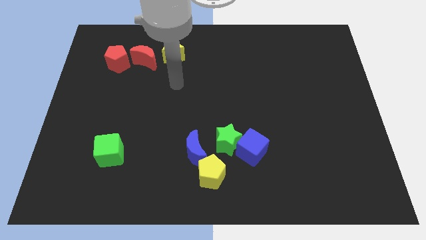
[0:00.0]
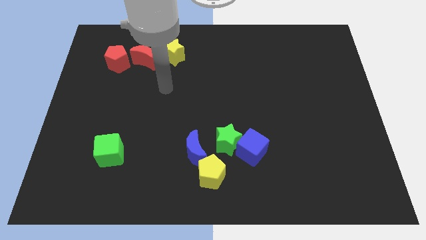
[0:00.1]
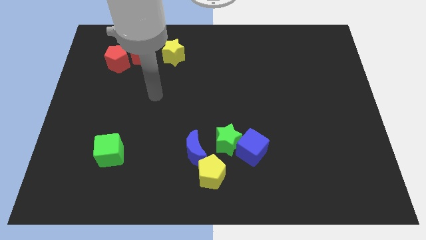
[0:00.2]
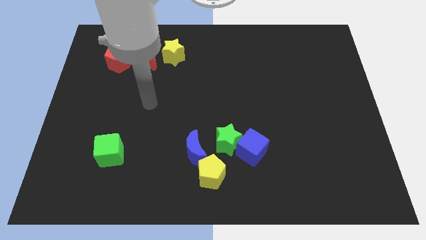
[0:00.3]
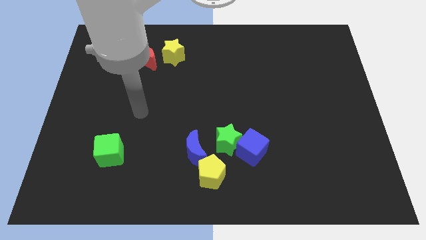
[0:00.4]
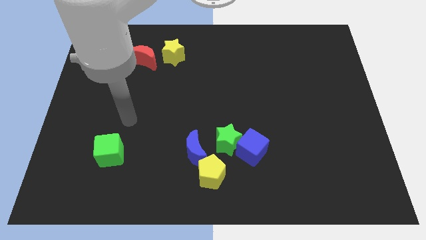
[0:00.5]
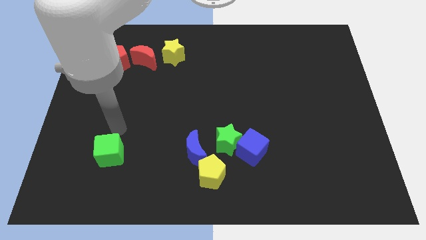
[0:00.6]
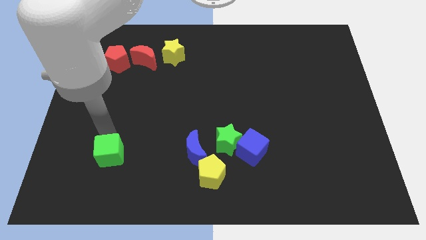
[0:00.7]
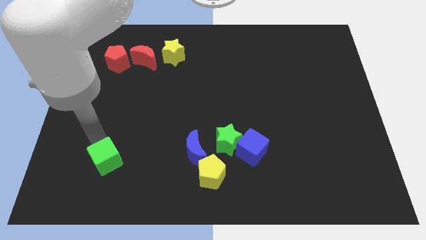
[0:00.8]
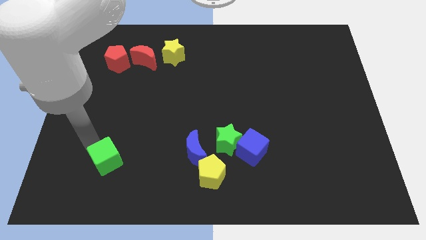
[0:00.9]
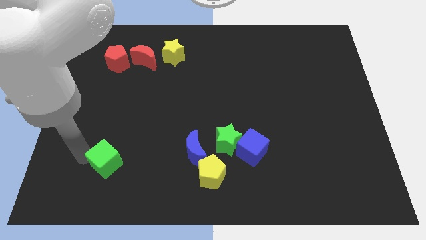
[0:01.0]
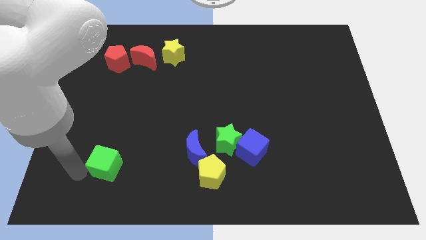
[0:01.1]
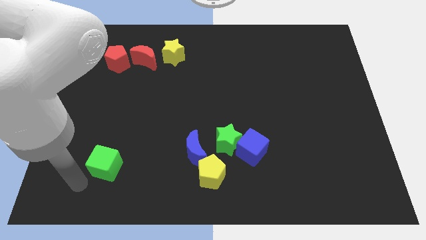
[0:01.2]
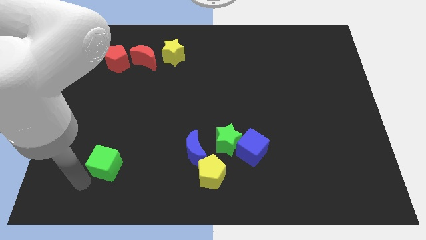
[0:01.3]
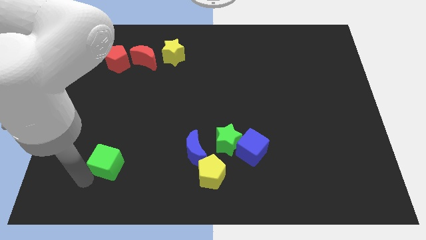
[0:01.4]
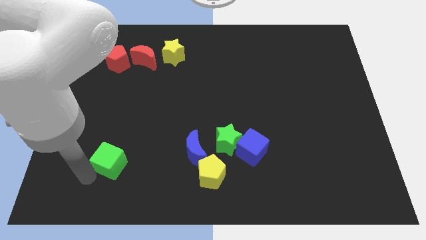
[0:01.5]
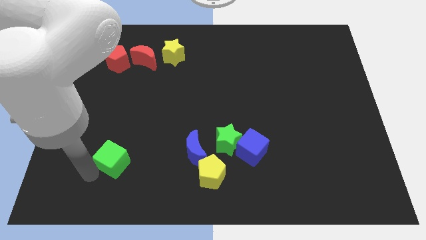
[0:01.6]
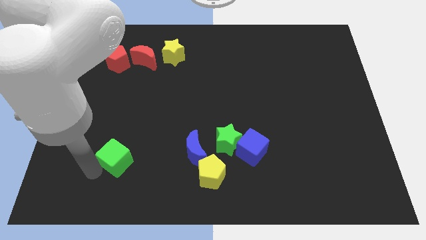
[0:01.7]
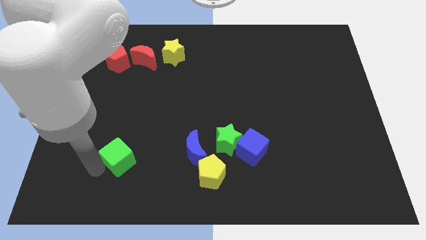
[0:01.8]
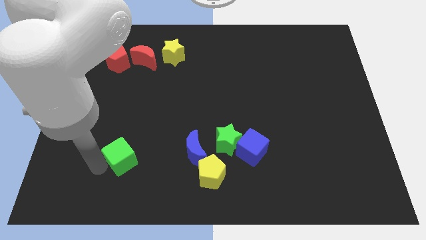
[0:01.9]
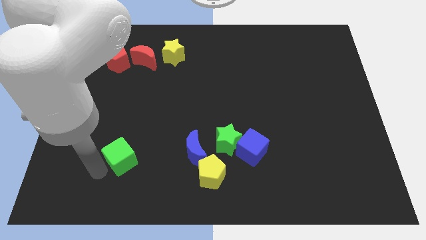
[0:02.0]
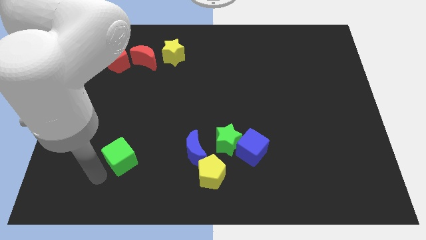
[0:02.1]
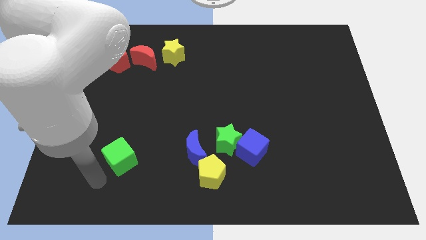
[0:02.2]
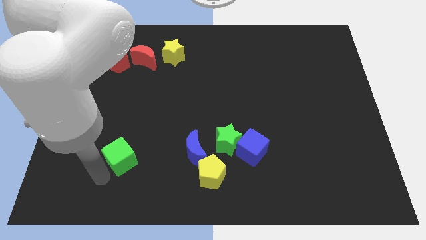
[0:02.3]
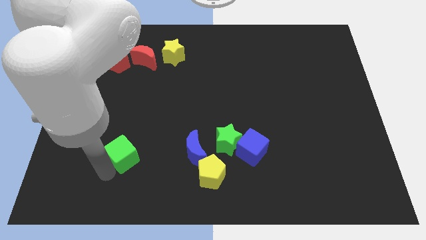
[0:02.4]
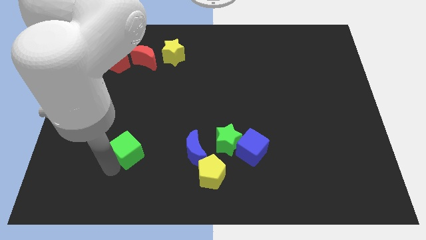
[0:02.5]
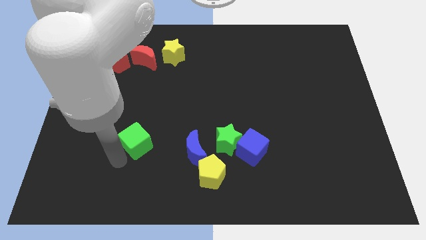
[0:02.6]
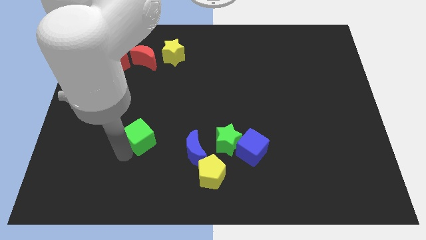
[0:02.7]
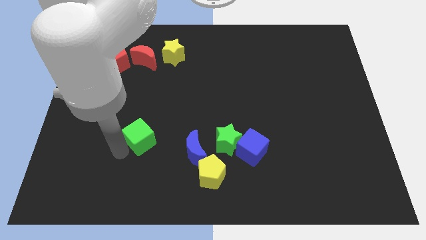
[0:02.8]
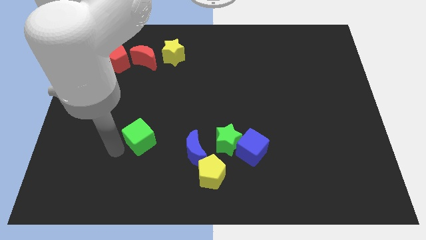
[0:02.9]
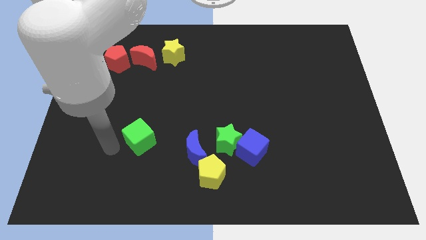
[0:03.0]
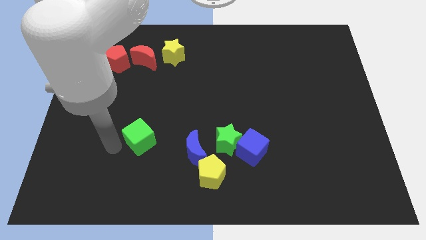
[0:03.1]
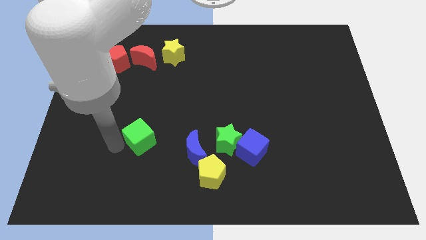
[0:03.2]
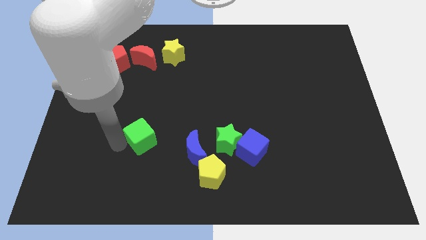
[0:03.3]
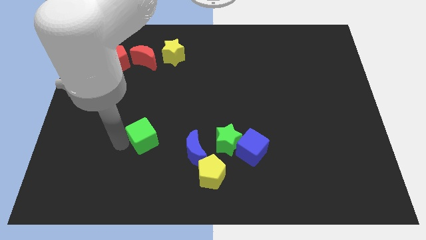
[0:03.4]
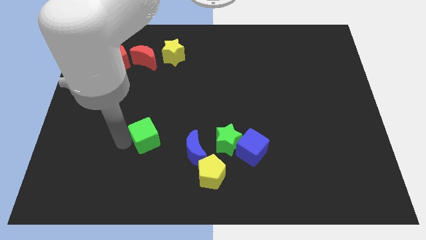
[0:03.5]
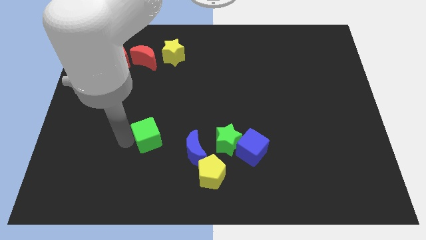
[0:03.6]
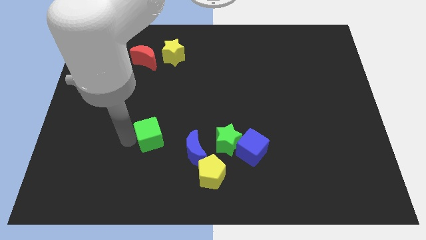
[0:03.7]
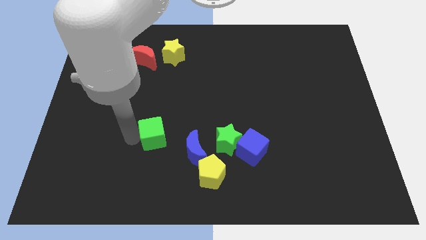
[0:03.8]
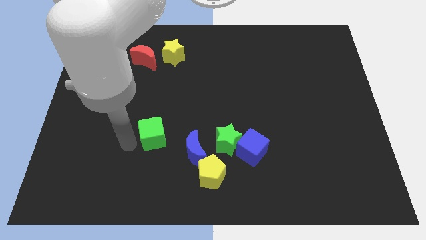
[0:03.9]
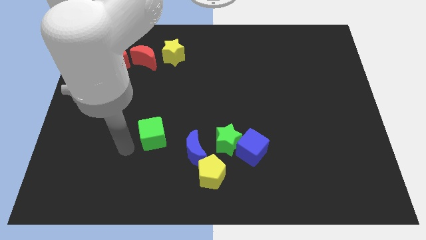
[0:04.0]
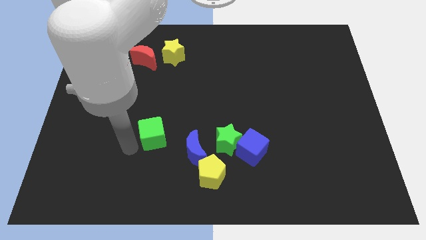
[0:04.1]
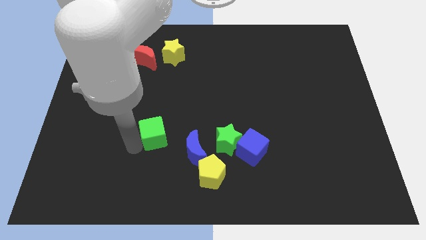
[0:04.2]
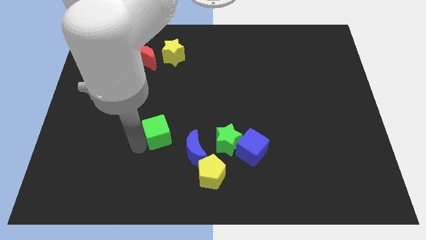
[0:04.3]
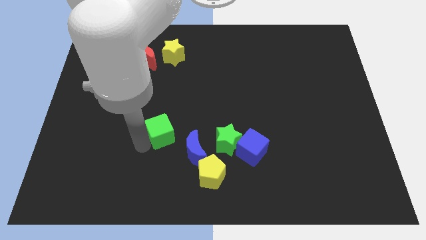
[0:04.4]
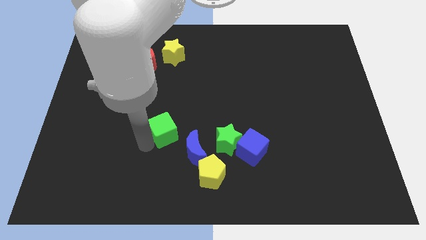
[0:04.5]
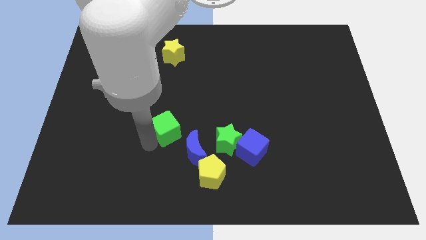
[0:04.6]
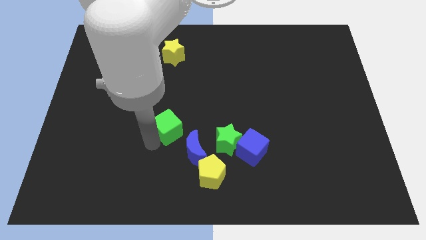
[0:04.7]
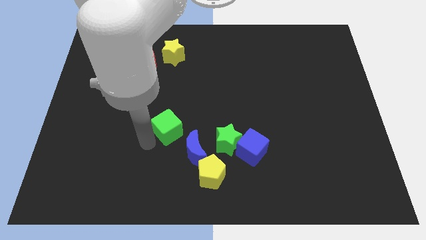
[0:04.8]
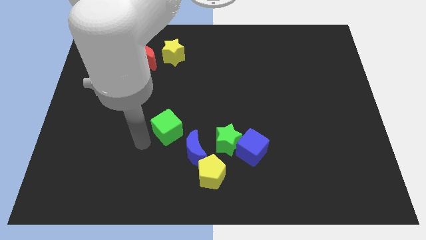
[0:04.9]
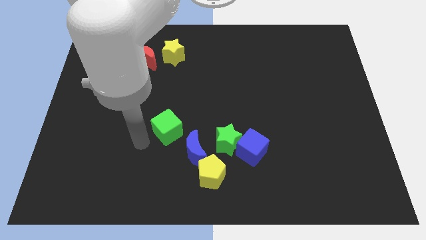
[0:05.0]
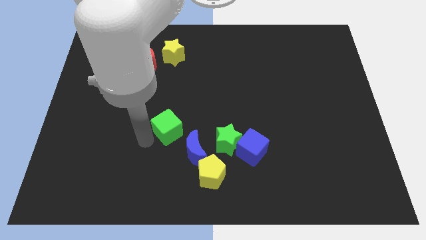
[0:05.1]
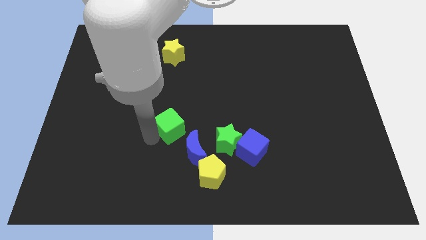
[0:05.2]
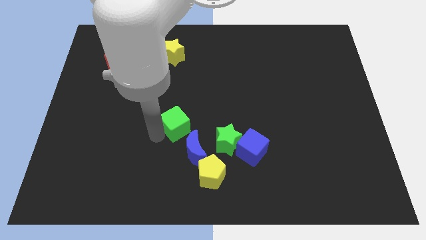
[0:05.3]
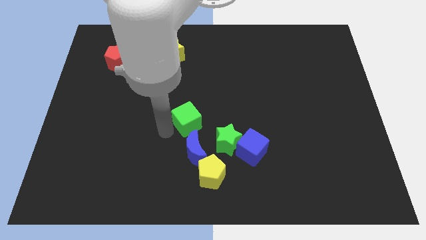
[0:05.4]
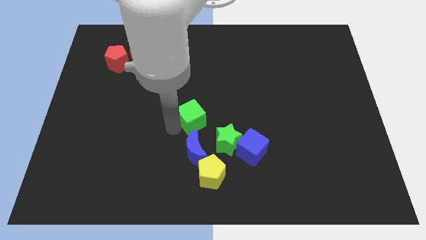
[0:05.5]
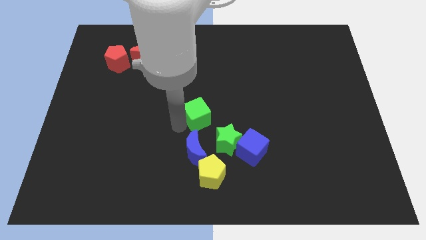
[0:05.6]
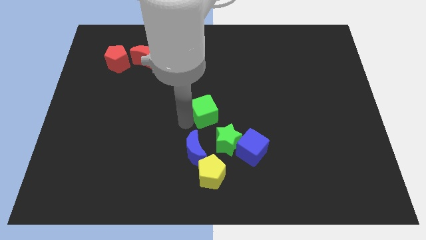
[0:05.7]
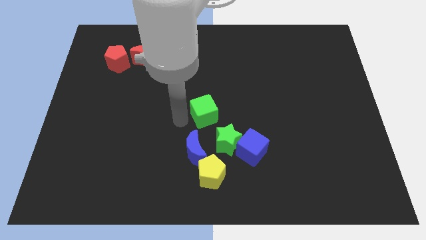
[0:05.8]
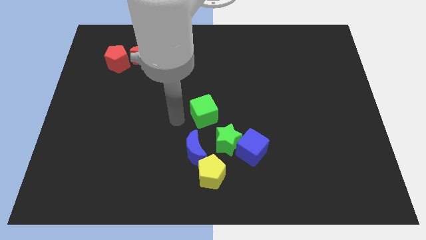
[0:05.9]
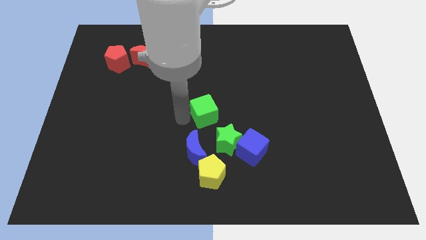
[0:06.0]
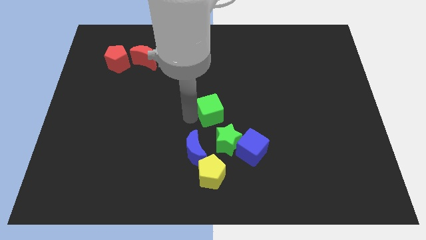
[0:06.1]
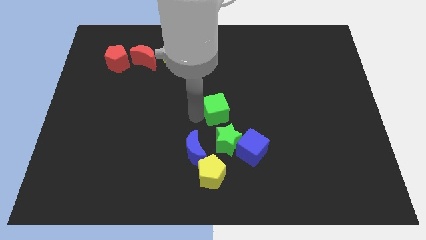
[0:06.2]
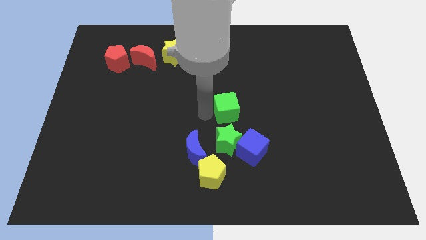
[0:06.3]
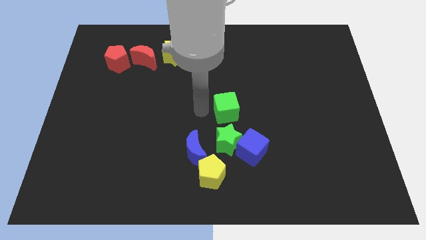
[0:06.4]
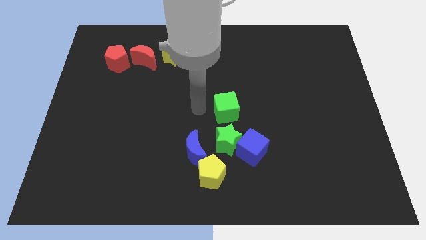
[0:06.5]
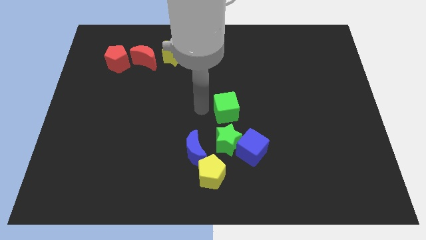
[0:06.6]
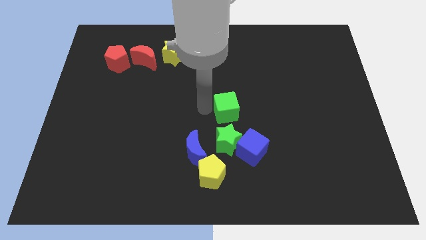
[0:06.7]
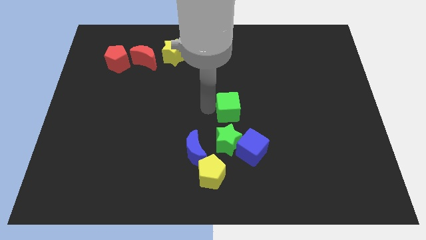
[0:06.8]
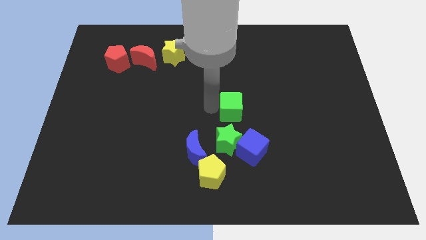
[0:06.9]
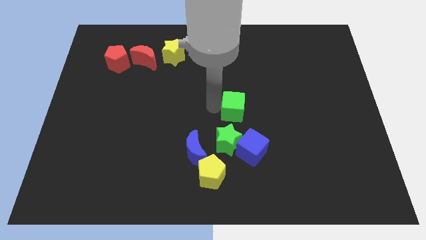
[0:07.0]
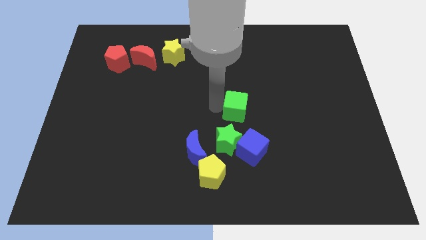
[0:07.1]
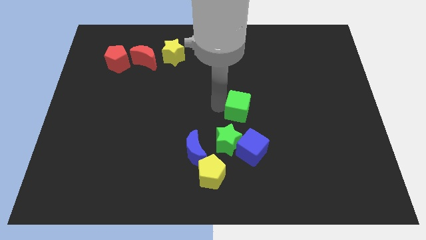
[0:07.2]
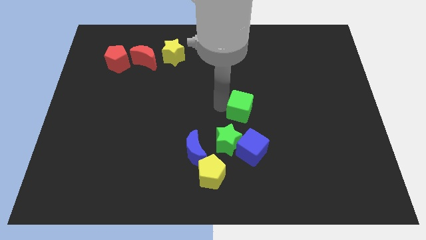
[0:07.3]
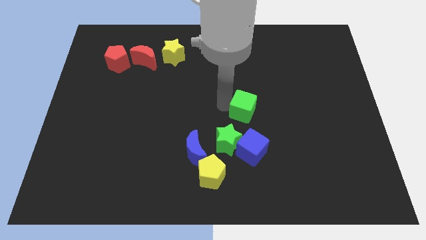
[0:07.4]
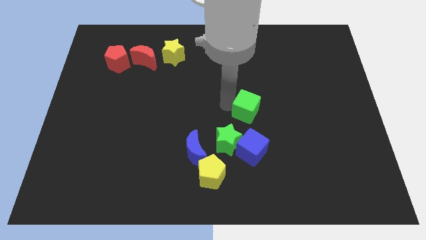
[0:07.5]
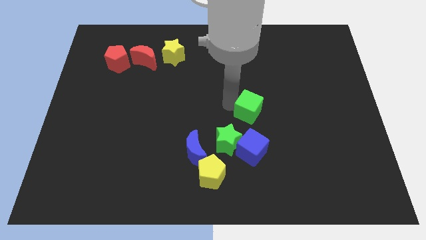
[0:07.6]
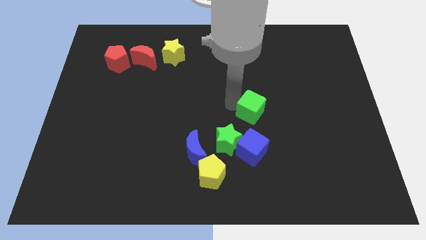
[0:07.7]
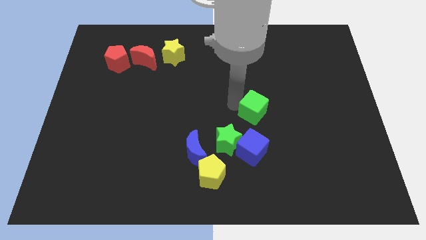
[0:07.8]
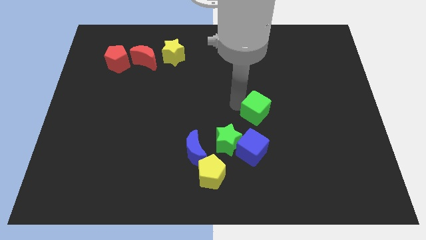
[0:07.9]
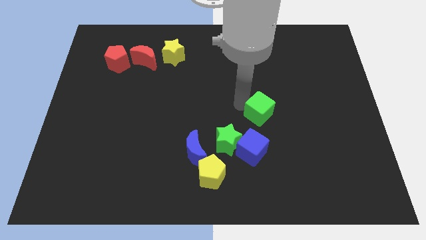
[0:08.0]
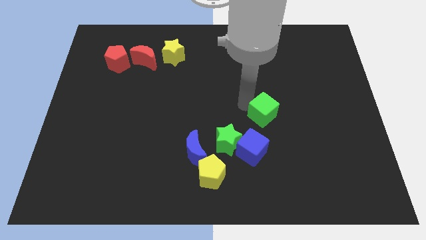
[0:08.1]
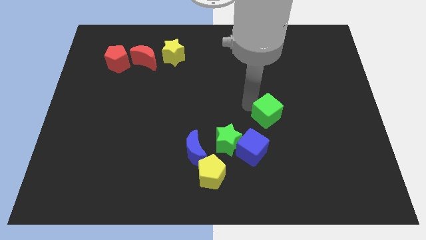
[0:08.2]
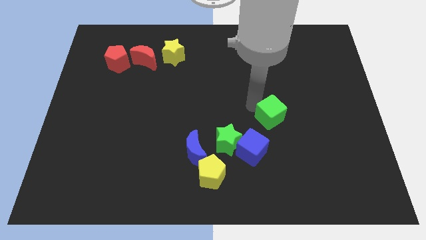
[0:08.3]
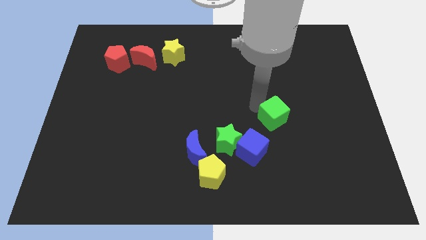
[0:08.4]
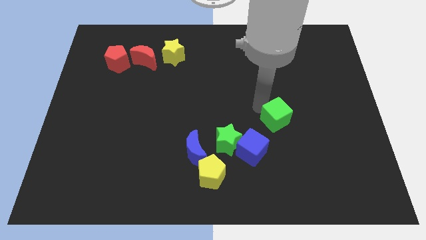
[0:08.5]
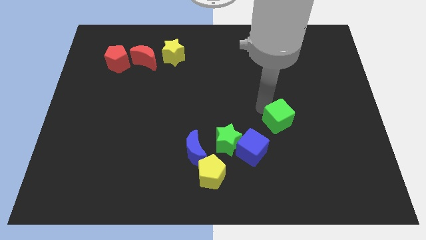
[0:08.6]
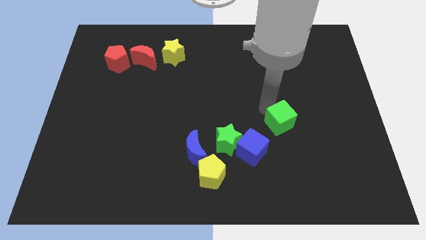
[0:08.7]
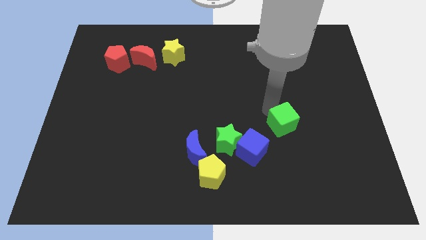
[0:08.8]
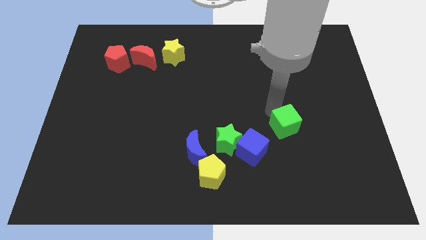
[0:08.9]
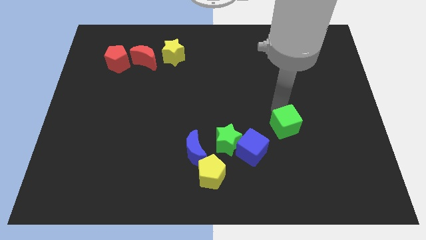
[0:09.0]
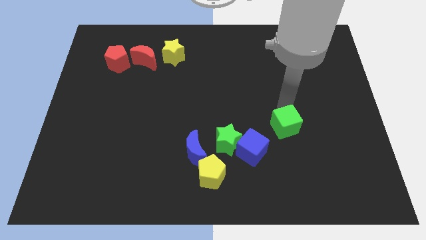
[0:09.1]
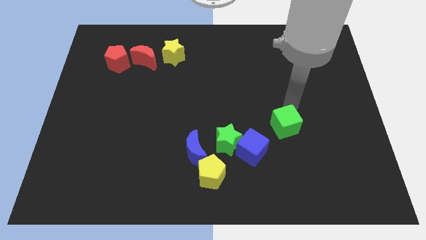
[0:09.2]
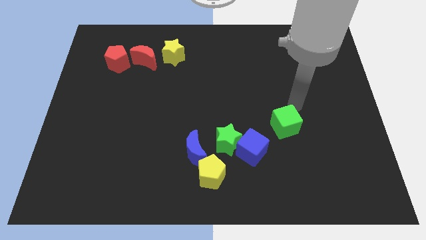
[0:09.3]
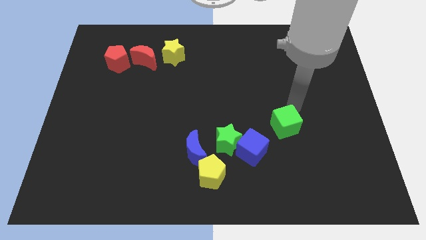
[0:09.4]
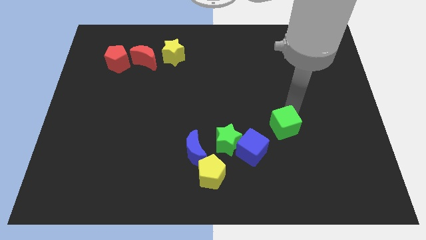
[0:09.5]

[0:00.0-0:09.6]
put the green cube right of the green star
